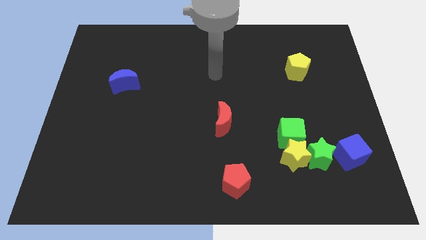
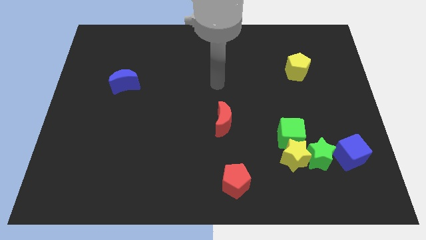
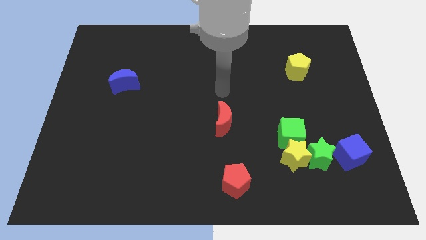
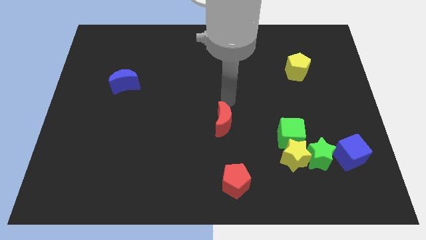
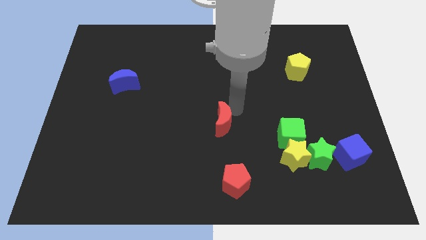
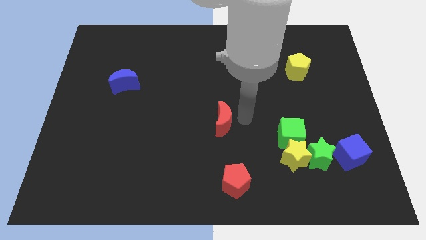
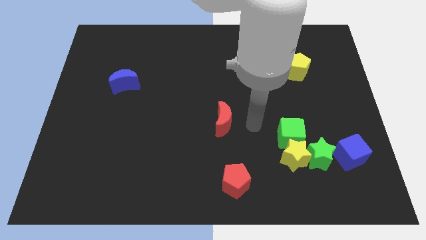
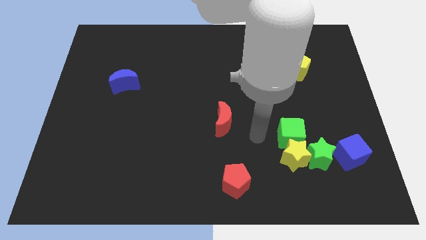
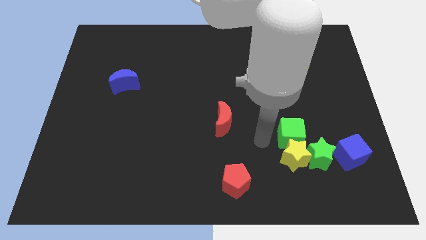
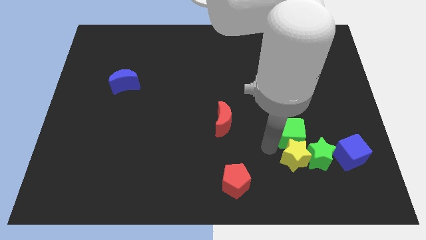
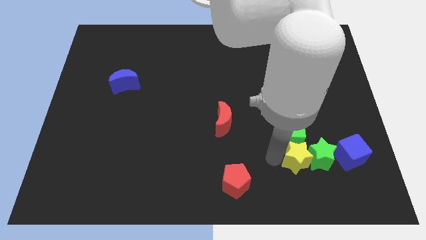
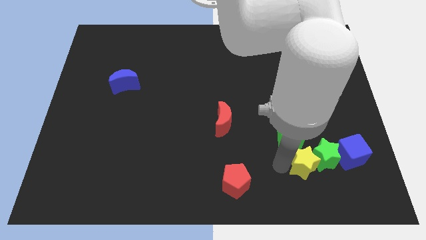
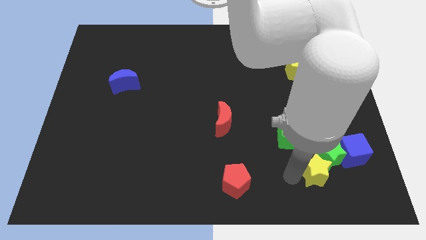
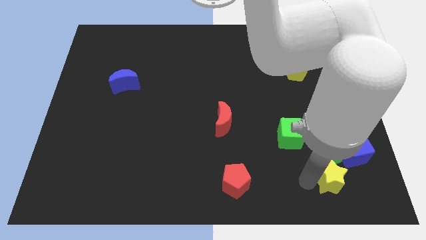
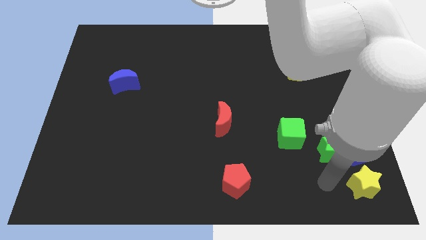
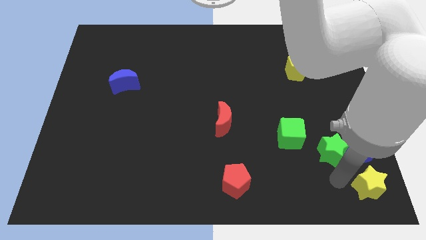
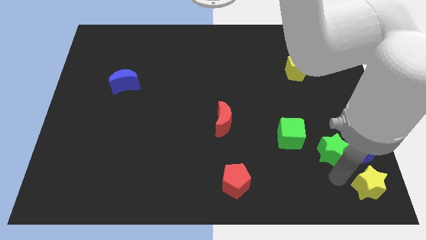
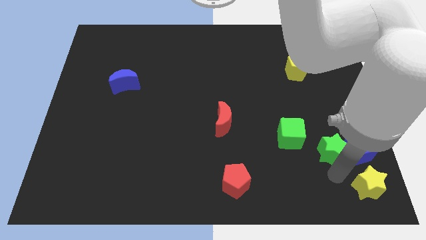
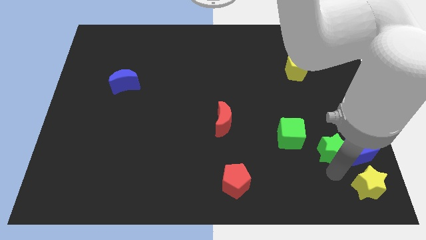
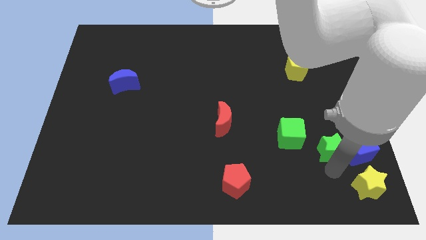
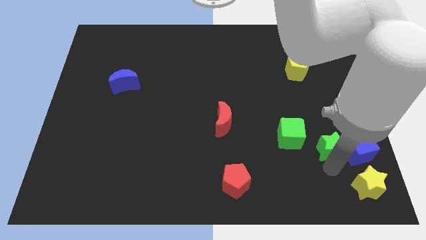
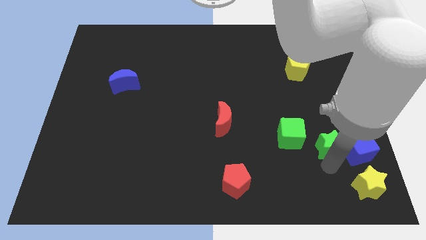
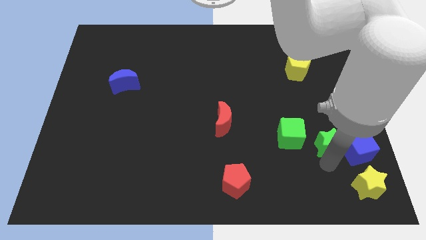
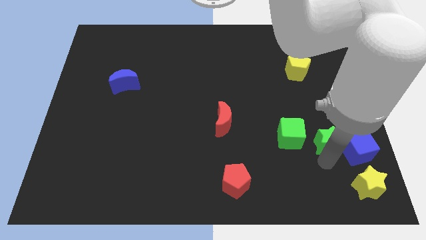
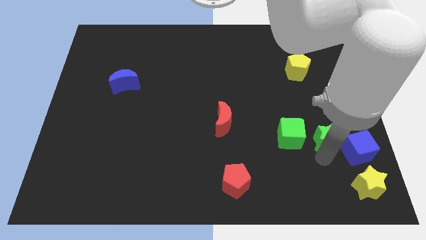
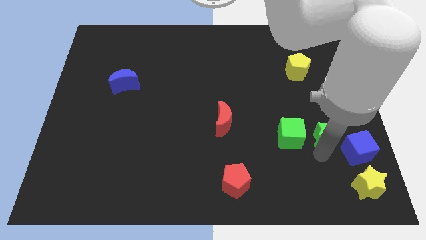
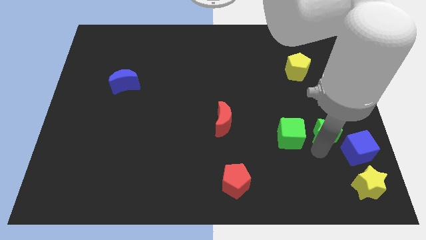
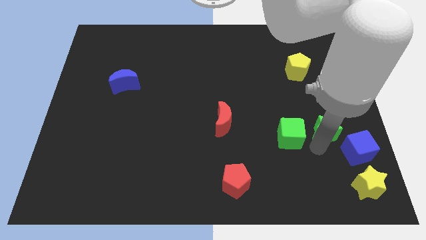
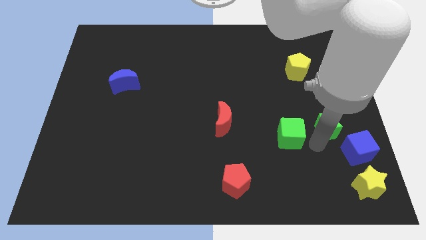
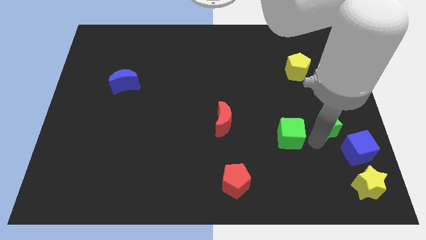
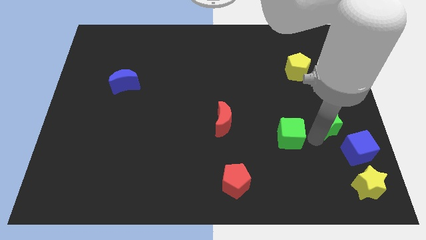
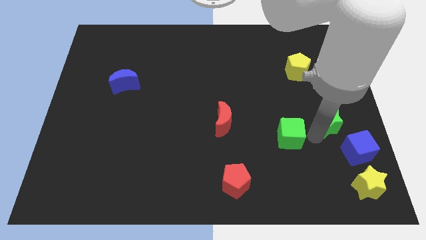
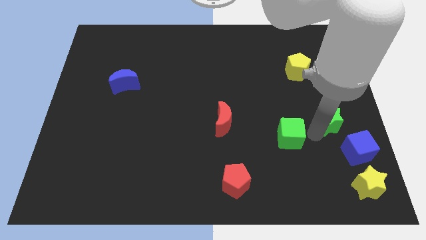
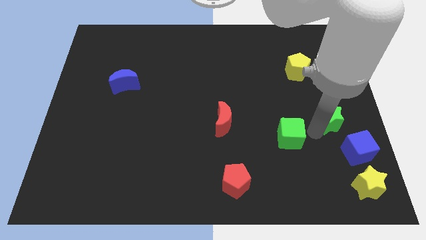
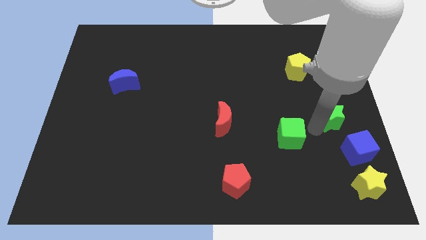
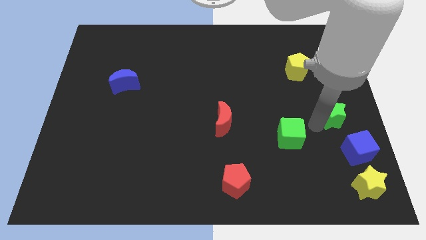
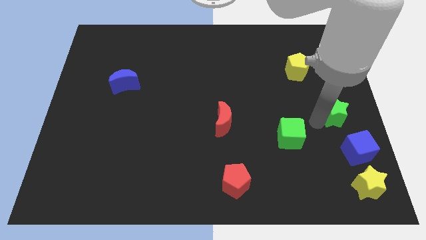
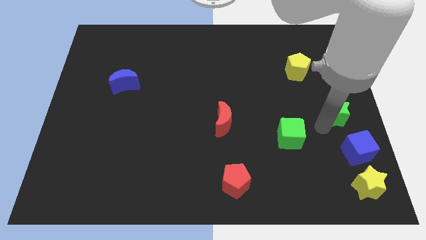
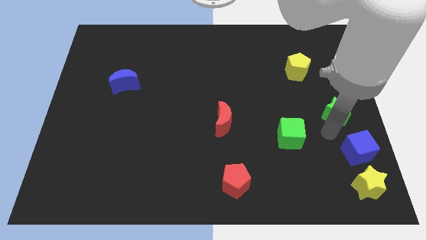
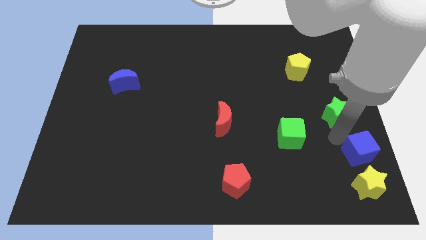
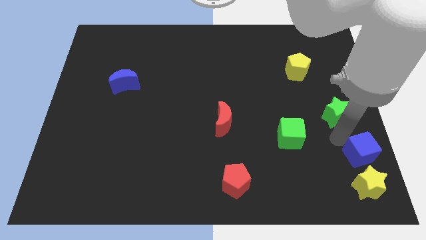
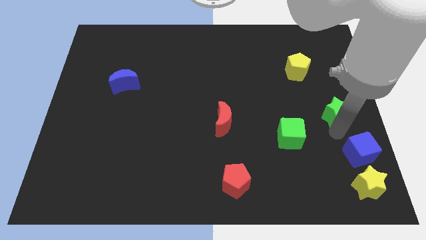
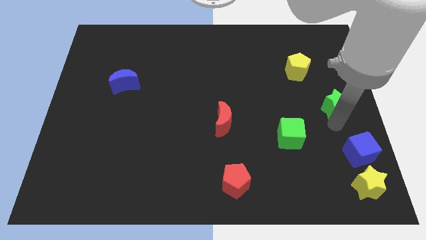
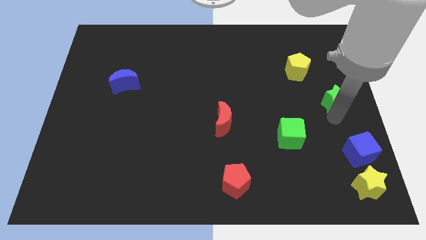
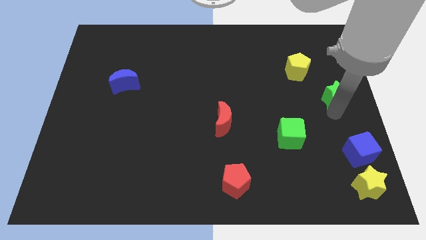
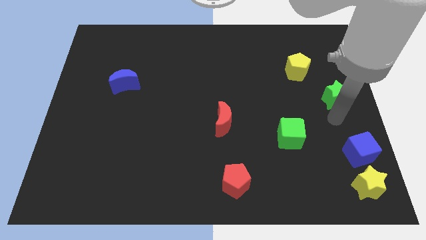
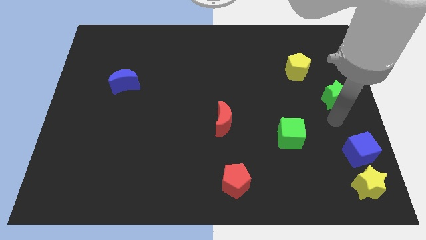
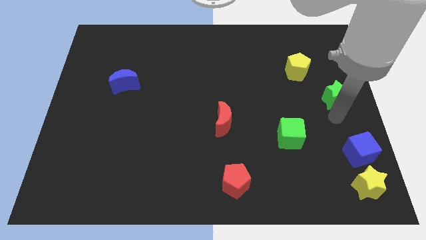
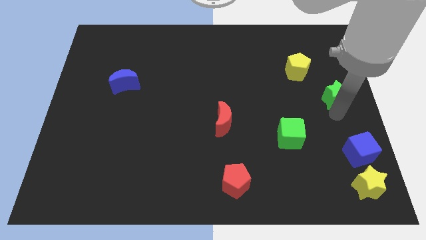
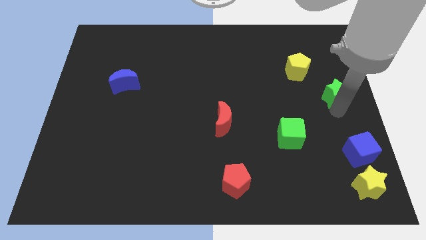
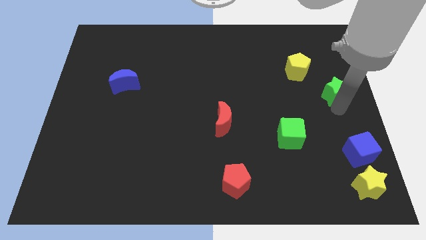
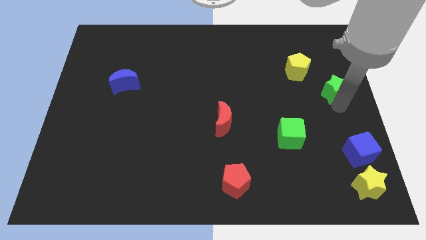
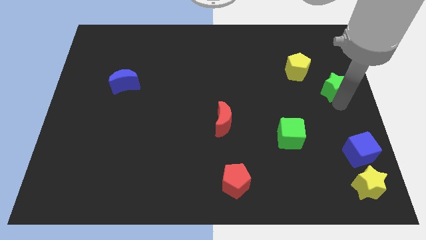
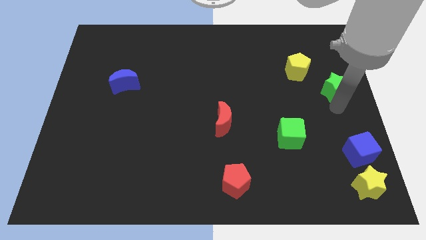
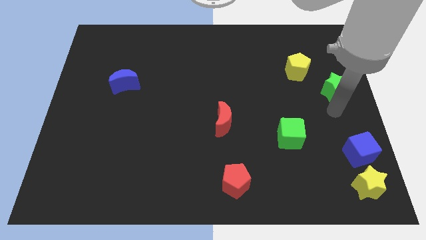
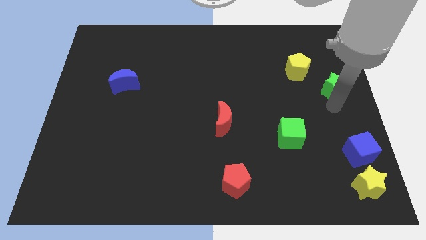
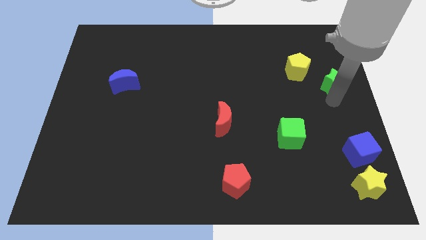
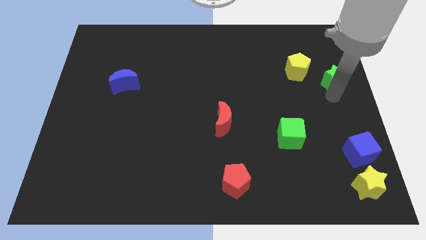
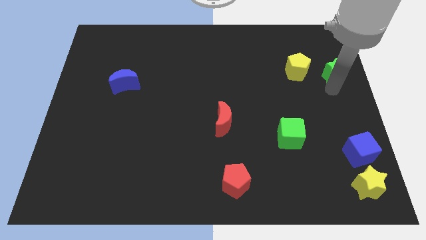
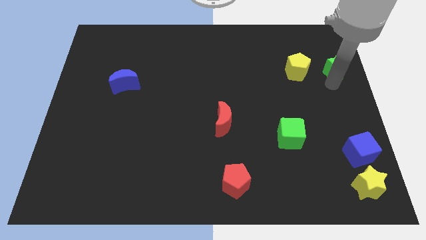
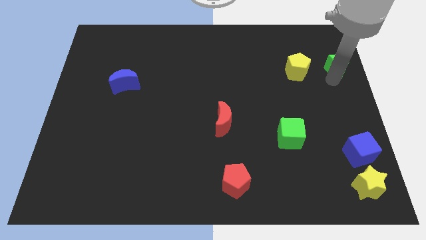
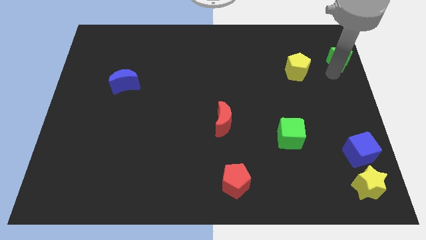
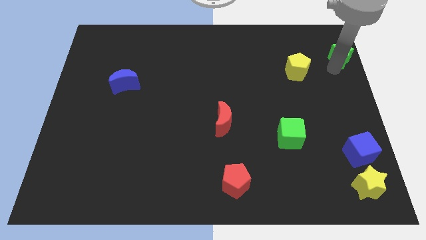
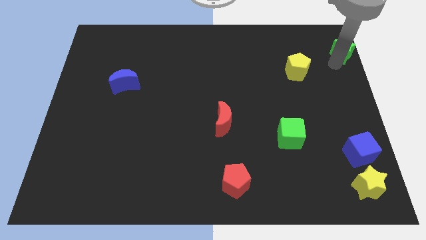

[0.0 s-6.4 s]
push the green star to the top right

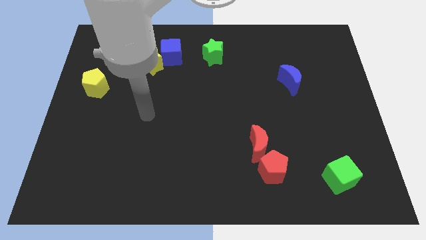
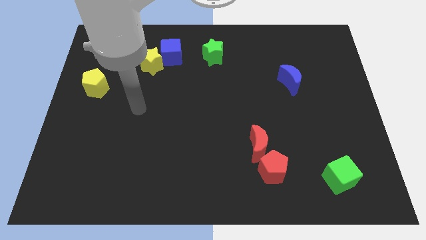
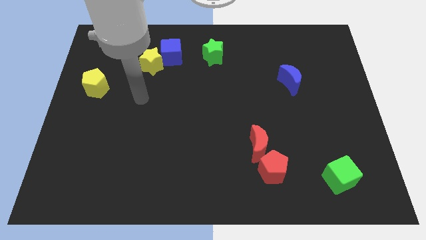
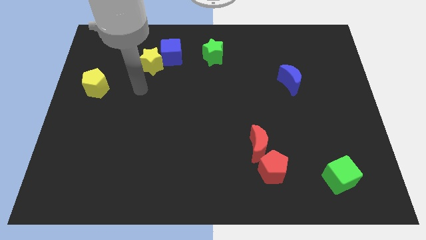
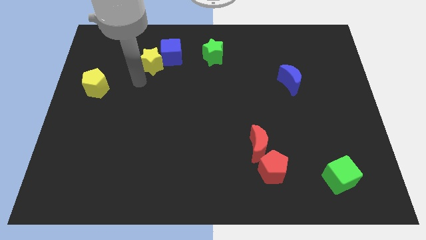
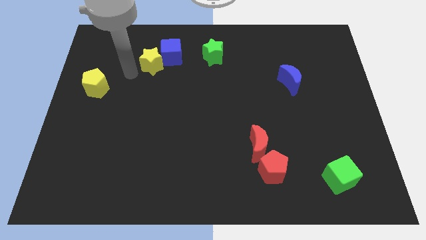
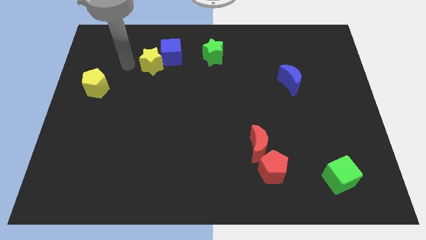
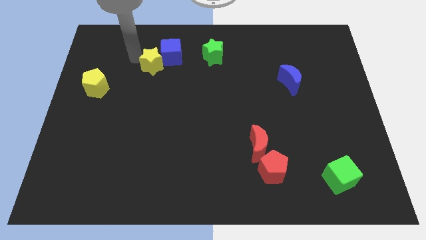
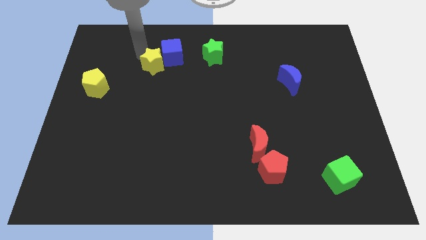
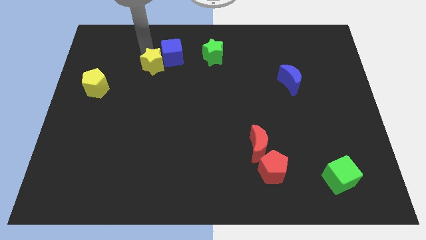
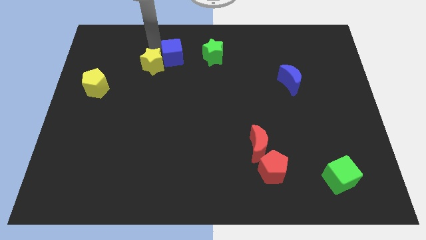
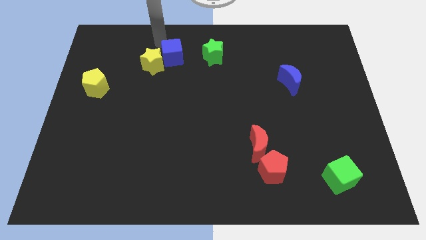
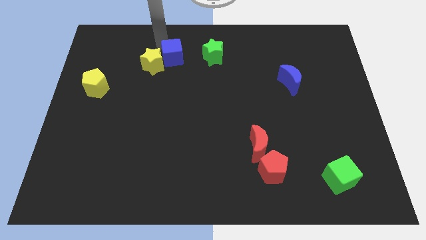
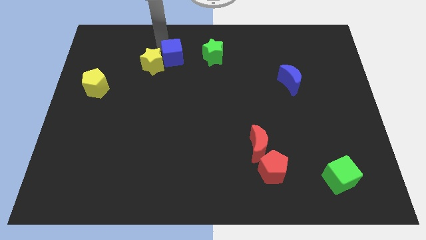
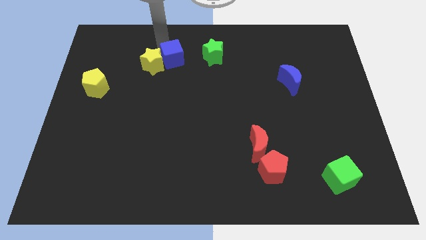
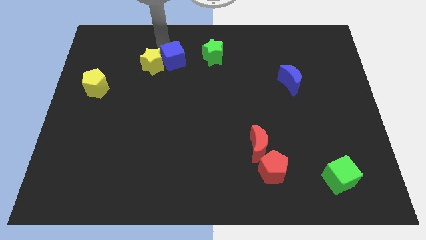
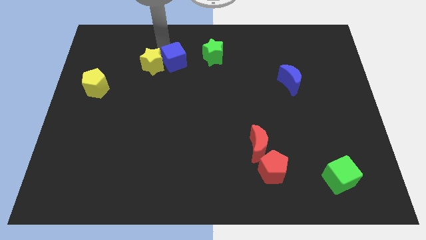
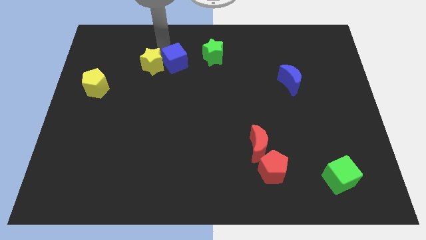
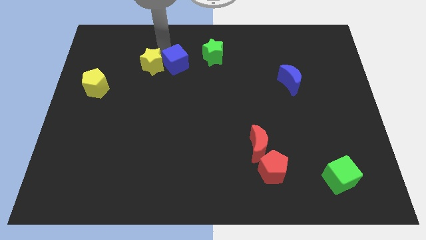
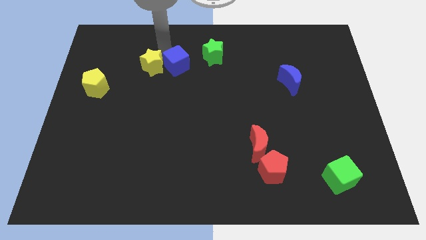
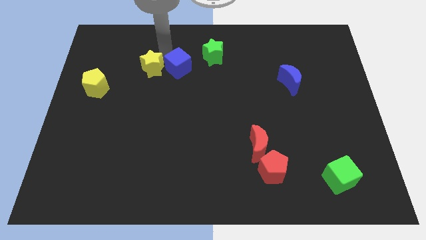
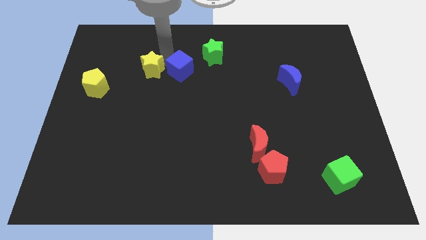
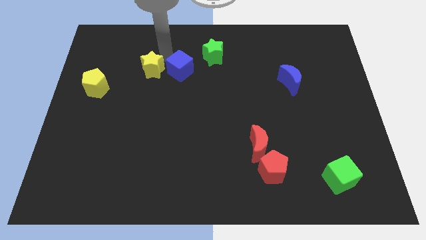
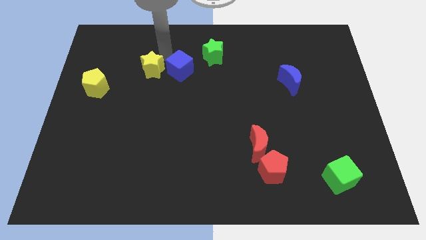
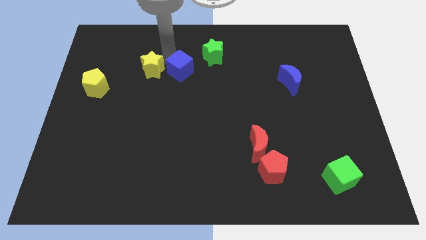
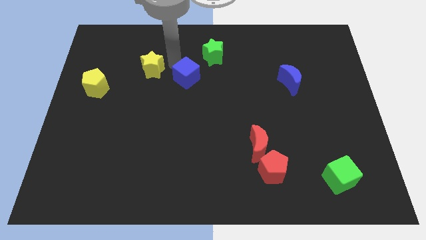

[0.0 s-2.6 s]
put the blue cube to the center
